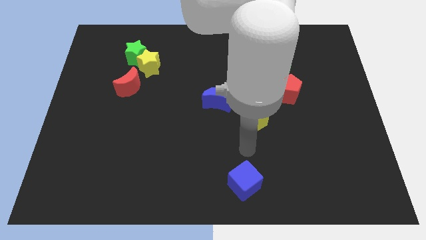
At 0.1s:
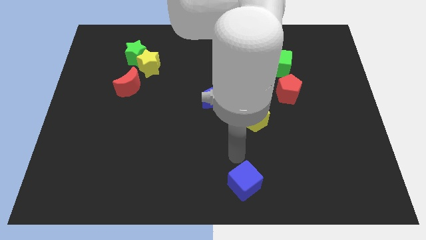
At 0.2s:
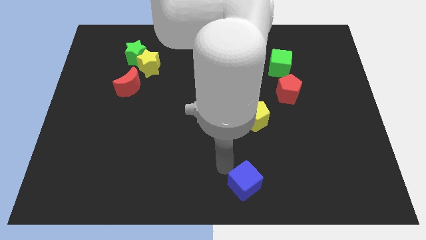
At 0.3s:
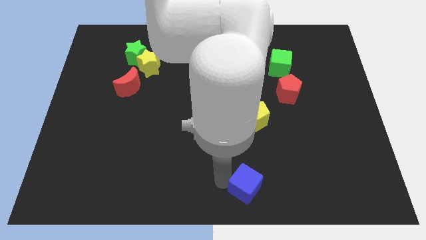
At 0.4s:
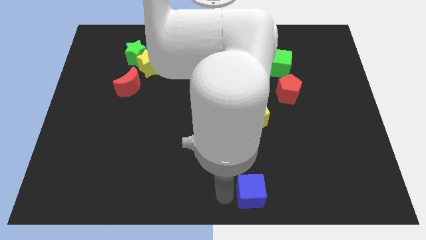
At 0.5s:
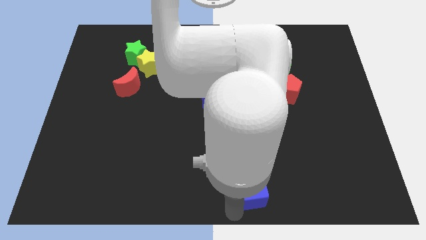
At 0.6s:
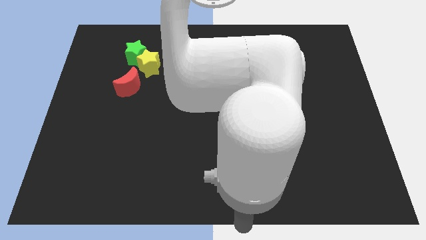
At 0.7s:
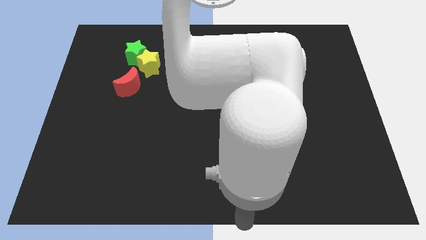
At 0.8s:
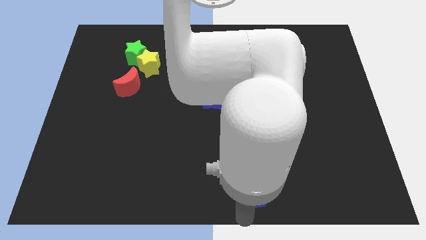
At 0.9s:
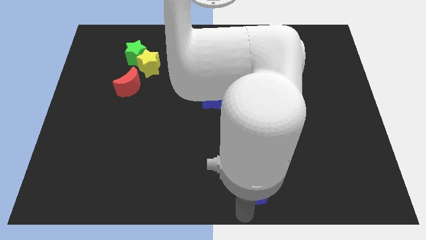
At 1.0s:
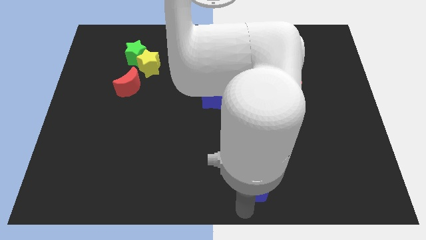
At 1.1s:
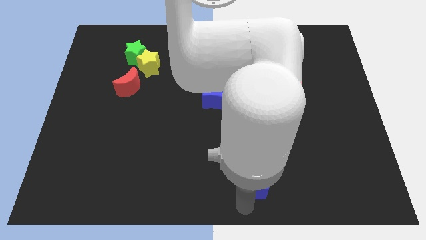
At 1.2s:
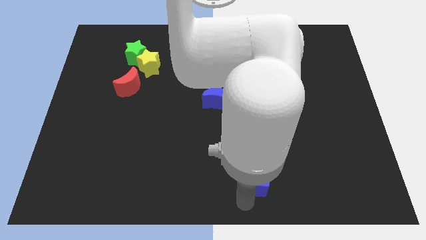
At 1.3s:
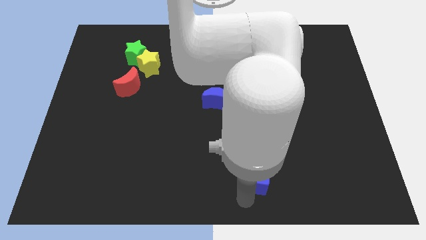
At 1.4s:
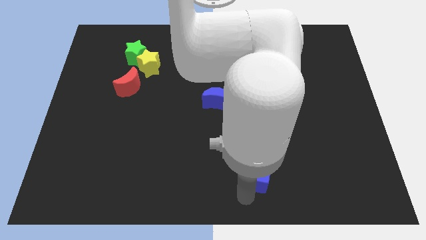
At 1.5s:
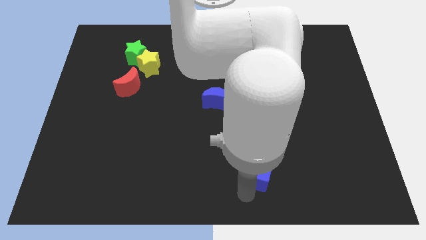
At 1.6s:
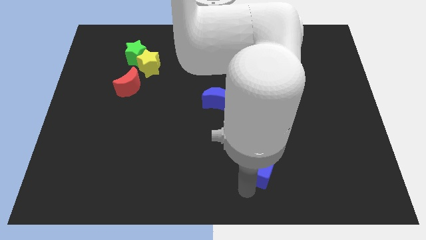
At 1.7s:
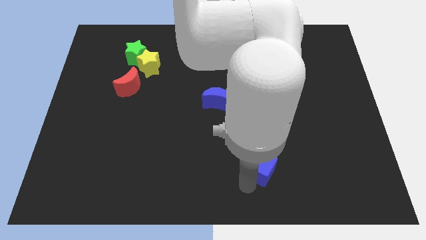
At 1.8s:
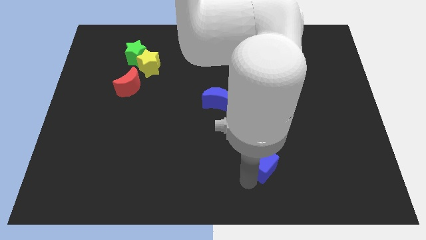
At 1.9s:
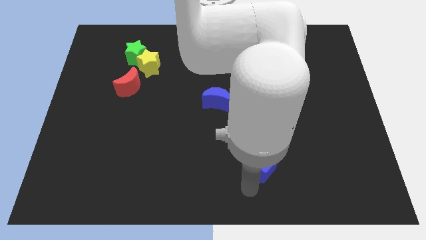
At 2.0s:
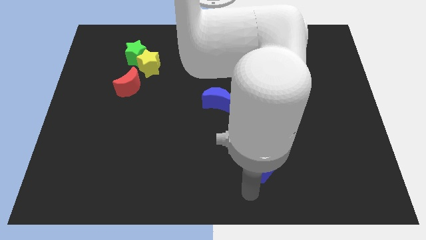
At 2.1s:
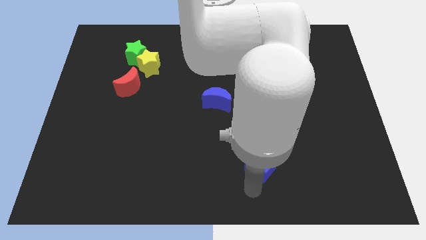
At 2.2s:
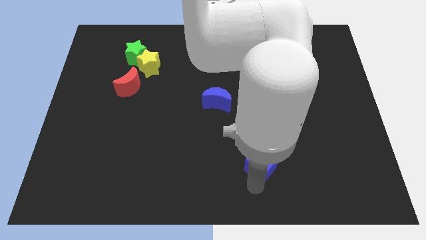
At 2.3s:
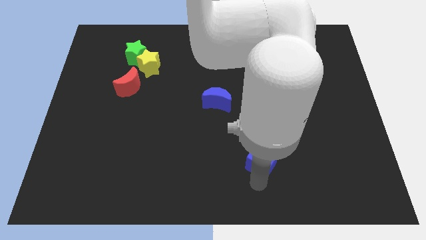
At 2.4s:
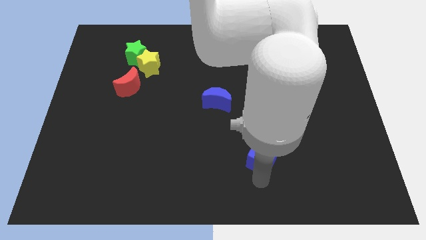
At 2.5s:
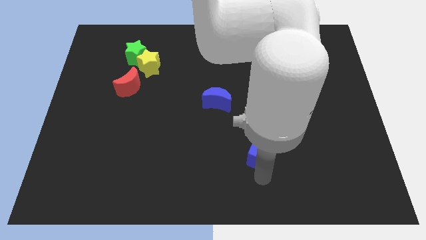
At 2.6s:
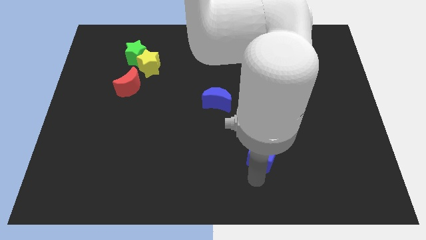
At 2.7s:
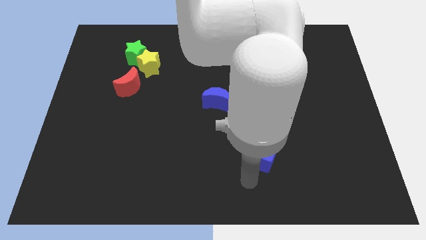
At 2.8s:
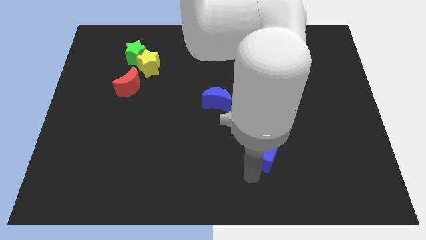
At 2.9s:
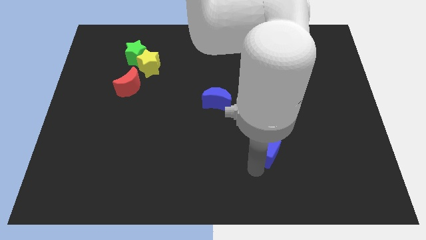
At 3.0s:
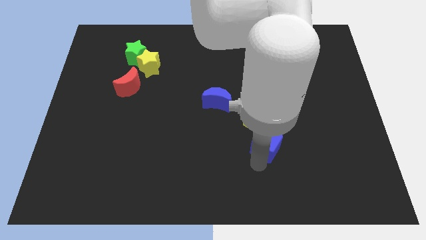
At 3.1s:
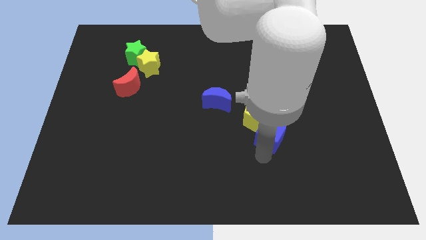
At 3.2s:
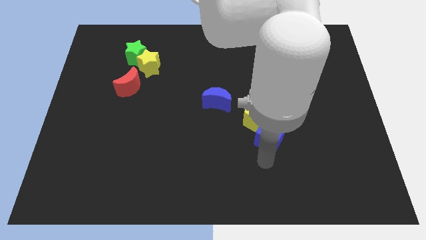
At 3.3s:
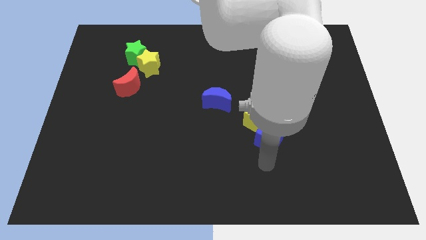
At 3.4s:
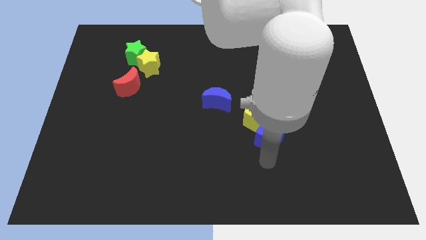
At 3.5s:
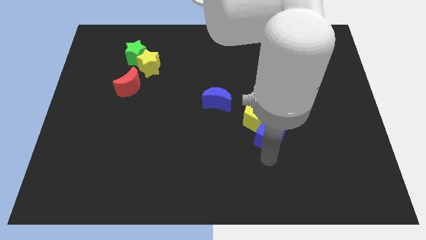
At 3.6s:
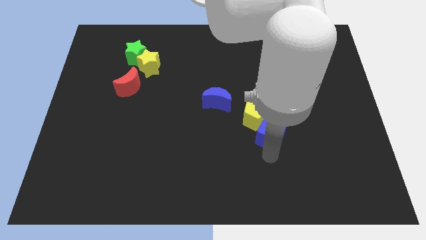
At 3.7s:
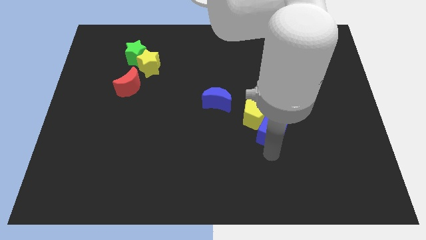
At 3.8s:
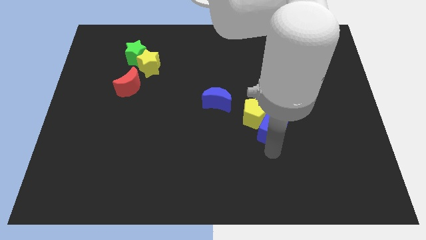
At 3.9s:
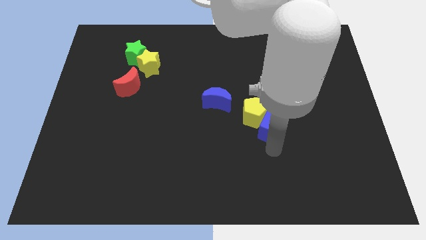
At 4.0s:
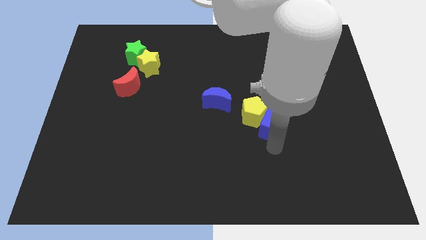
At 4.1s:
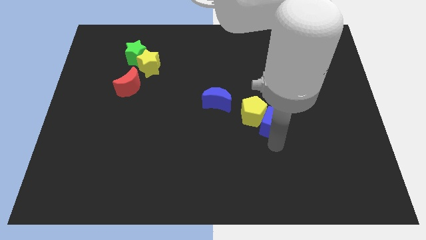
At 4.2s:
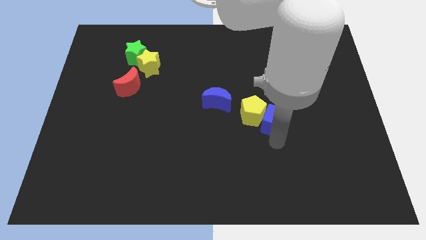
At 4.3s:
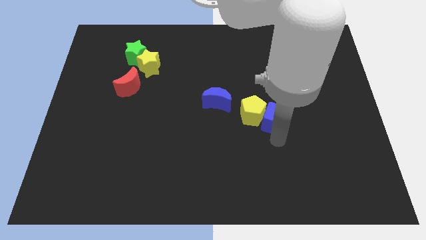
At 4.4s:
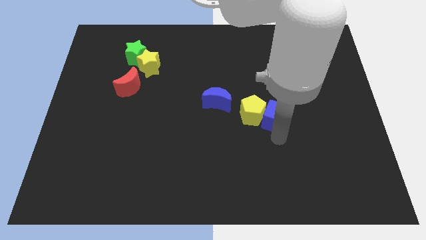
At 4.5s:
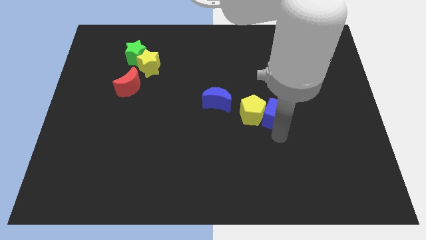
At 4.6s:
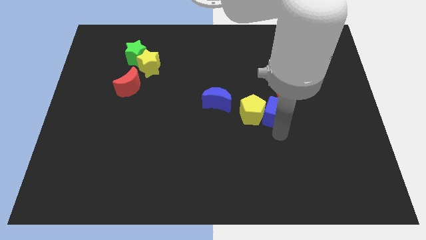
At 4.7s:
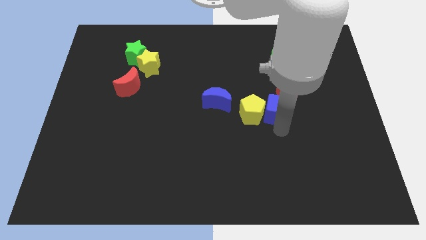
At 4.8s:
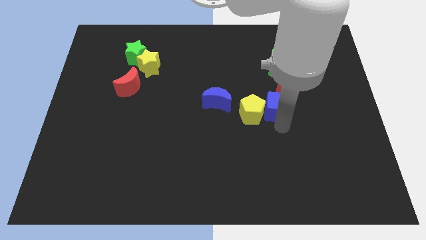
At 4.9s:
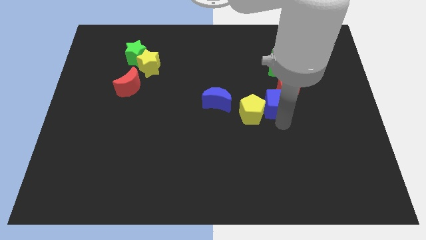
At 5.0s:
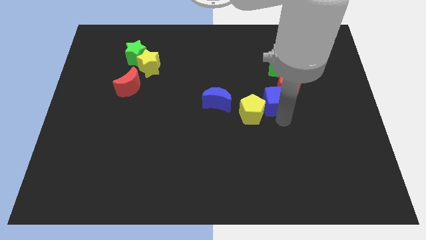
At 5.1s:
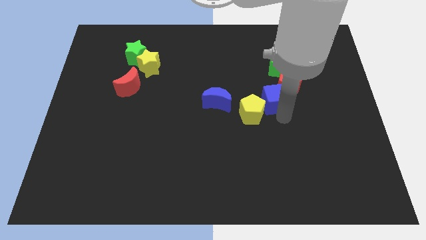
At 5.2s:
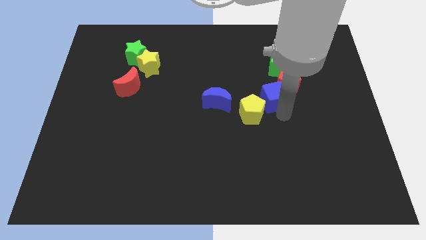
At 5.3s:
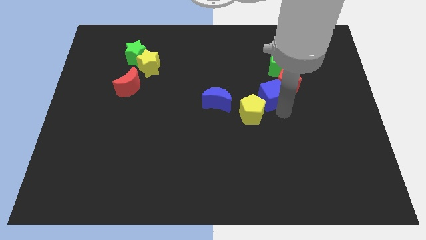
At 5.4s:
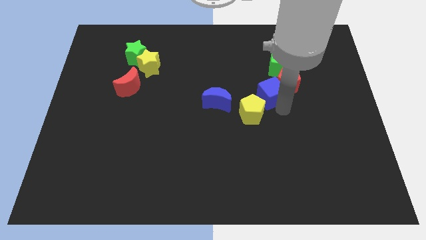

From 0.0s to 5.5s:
move the blue cube to the bottom left of the green cube

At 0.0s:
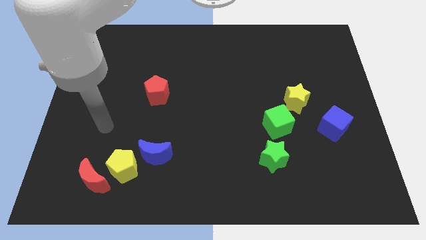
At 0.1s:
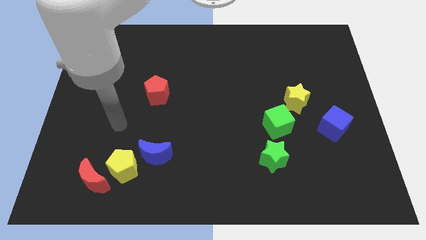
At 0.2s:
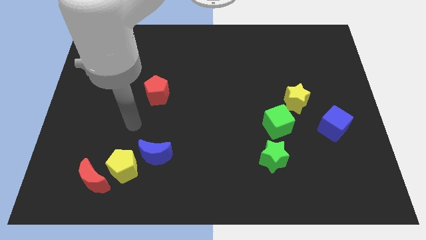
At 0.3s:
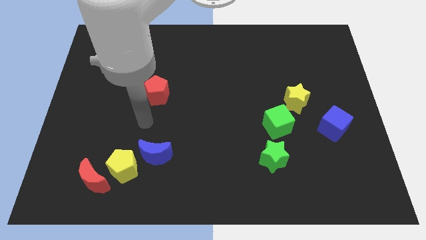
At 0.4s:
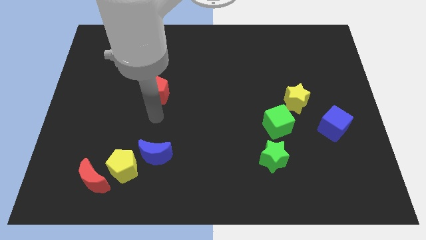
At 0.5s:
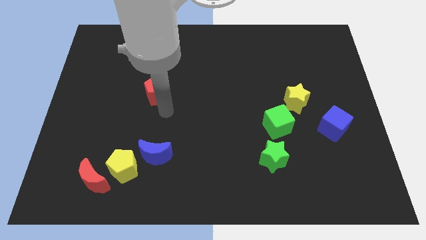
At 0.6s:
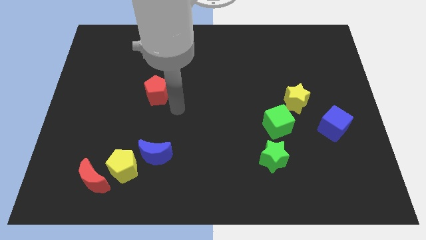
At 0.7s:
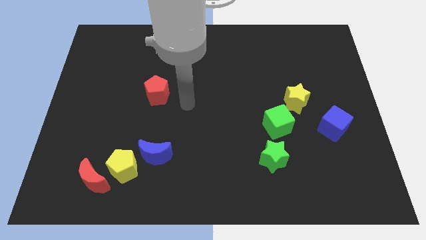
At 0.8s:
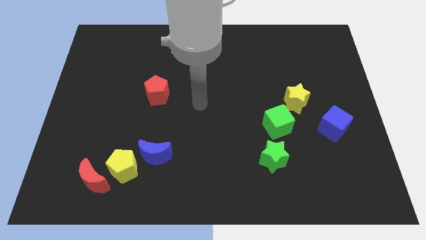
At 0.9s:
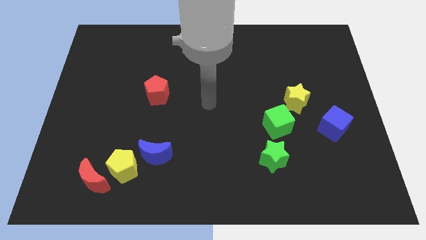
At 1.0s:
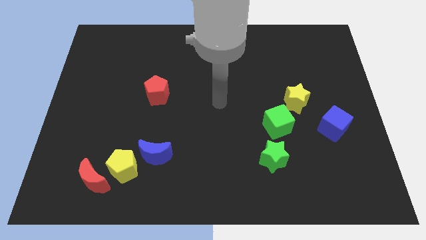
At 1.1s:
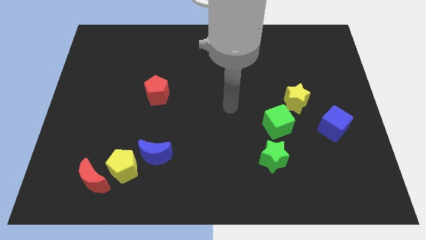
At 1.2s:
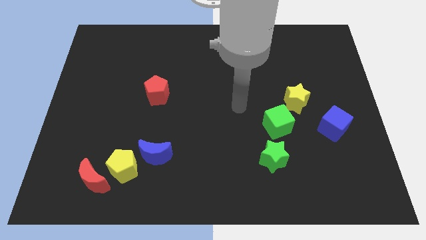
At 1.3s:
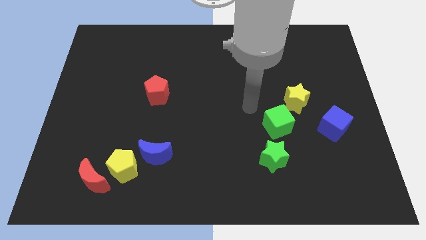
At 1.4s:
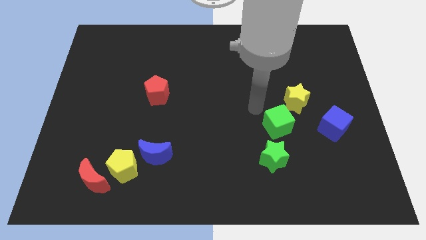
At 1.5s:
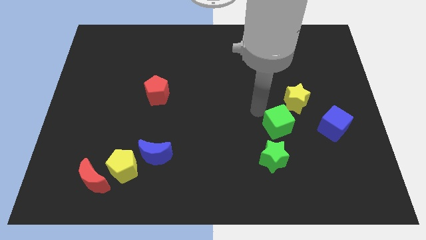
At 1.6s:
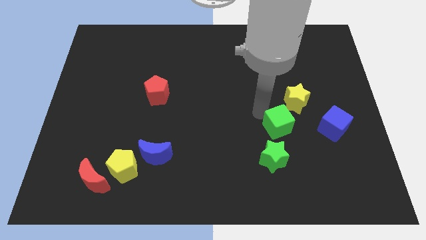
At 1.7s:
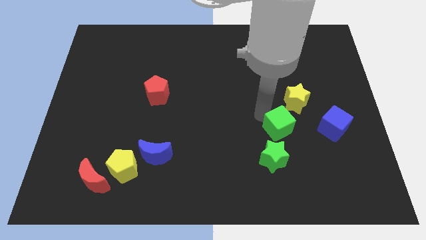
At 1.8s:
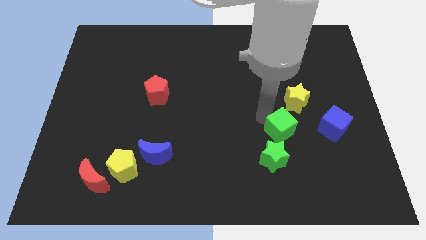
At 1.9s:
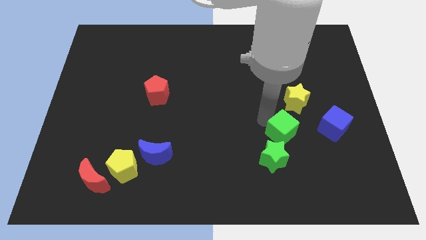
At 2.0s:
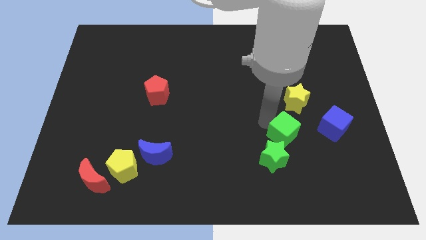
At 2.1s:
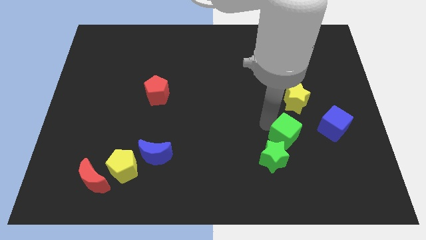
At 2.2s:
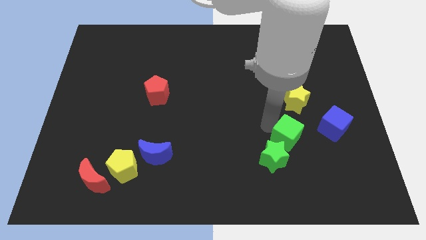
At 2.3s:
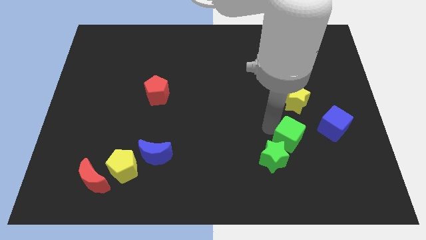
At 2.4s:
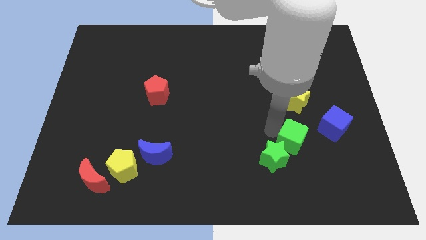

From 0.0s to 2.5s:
move the green cube to the right side of the green star
